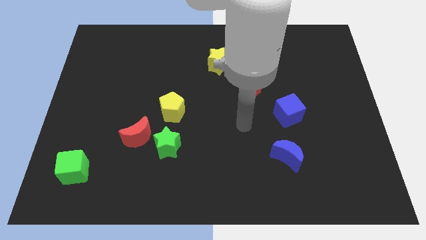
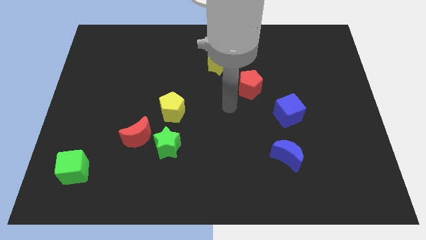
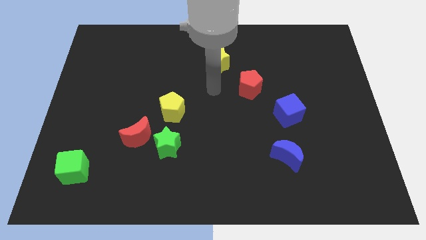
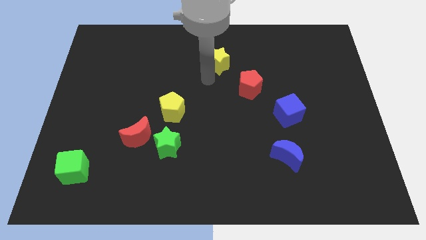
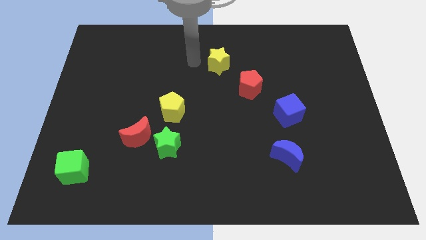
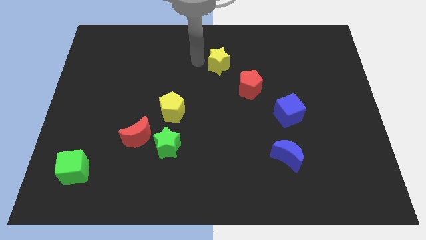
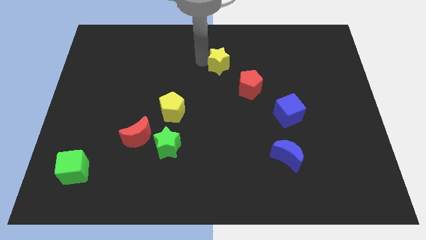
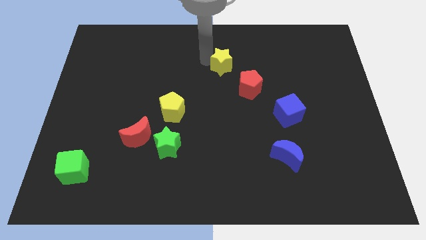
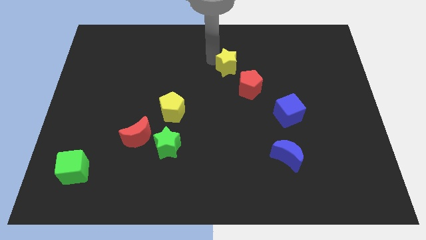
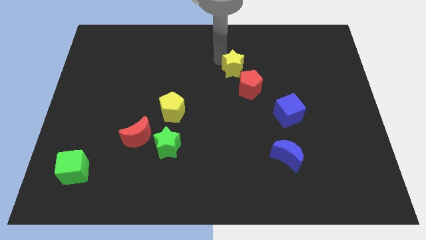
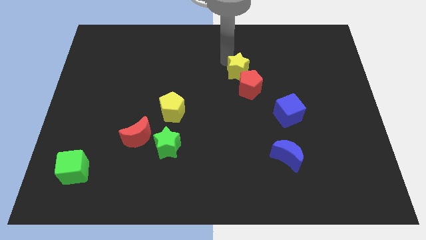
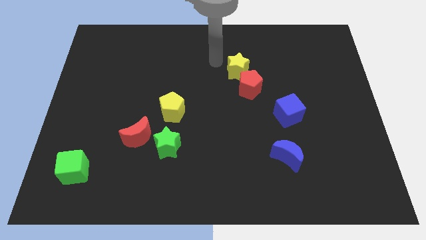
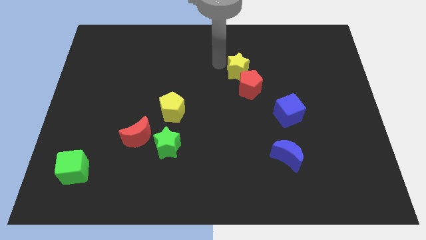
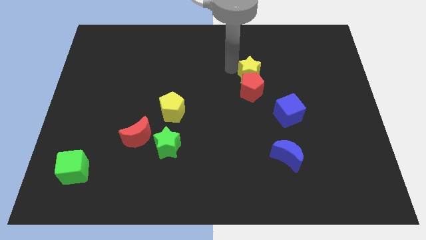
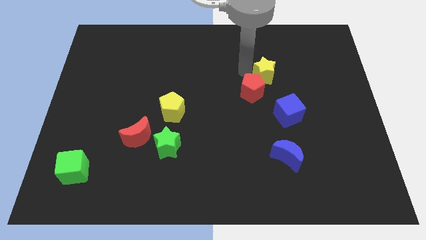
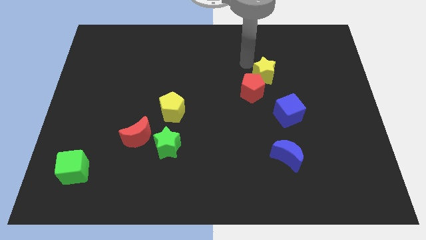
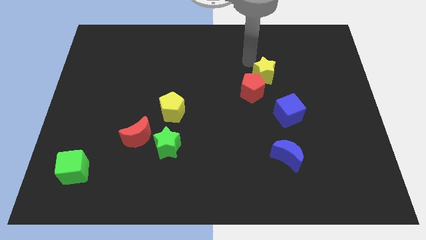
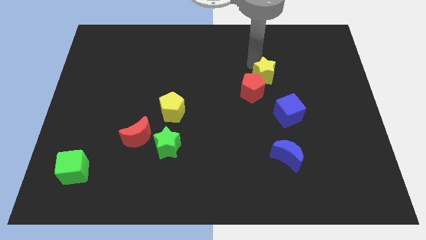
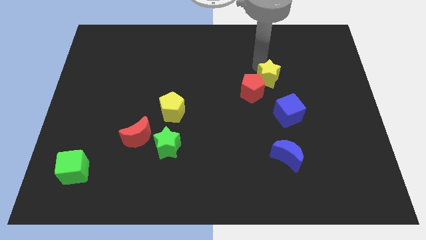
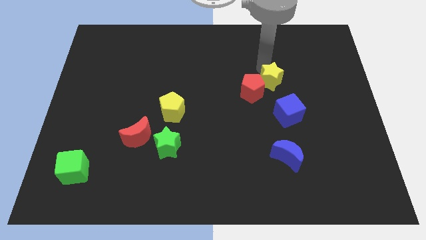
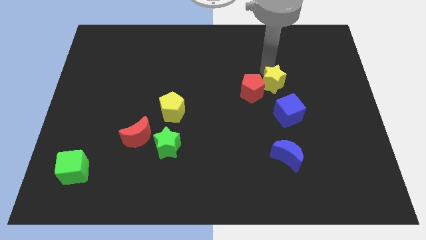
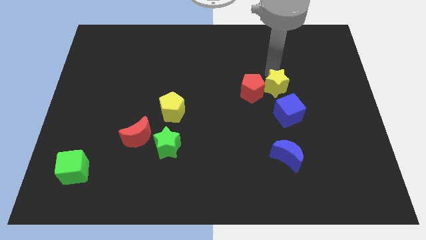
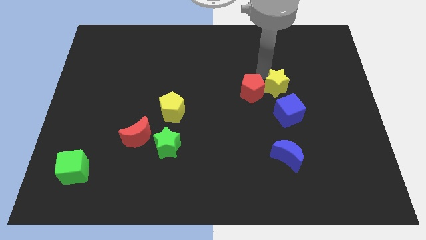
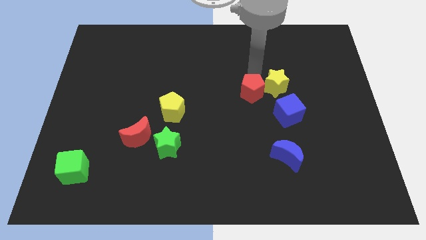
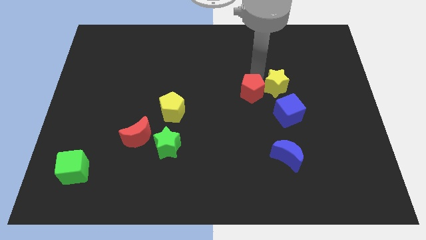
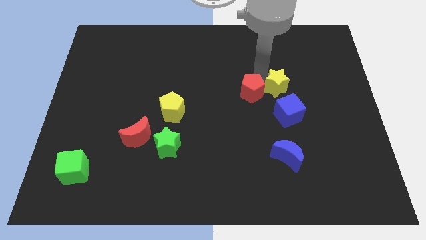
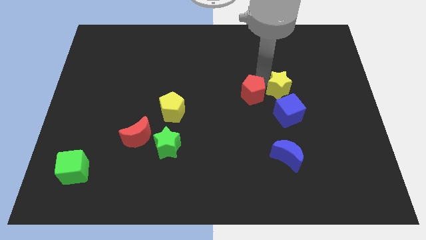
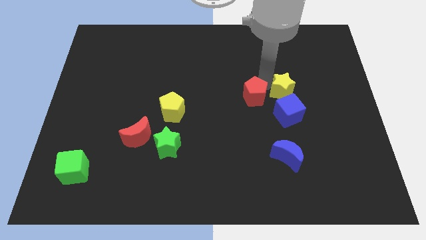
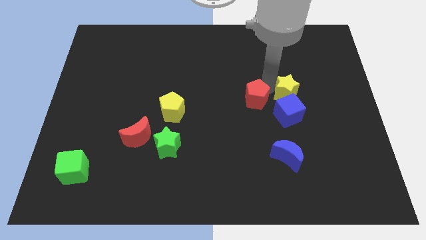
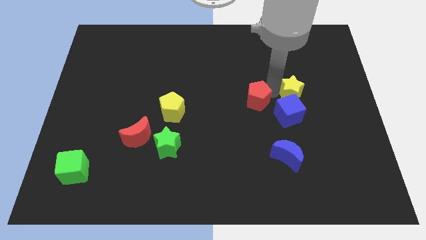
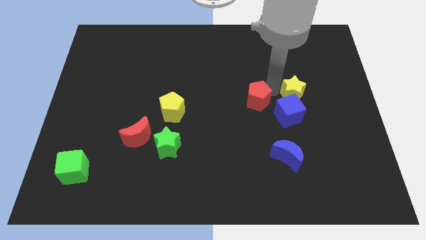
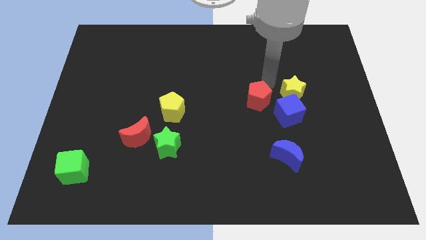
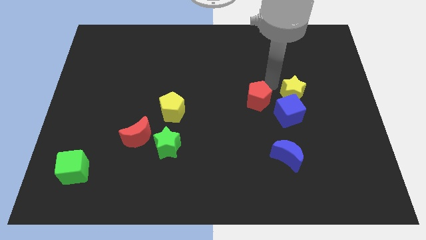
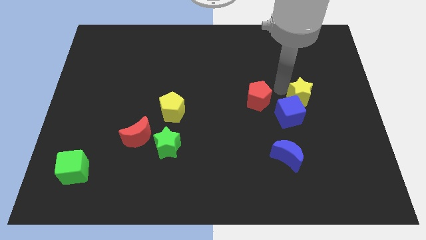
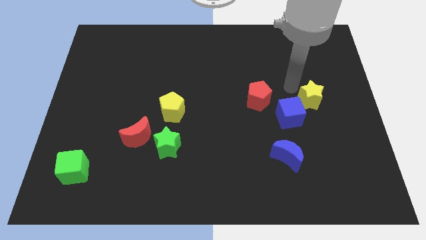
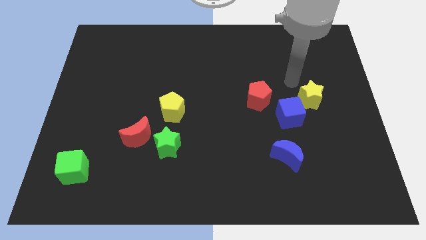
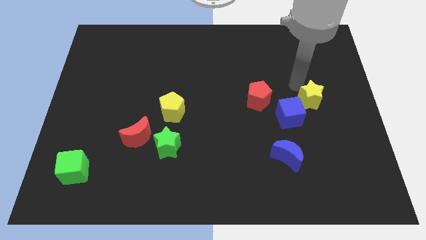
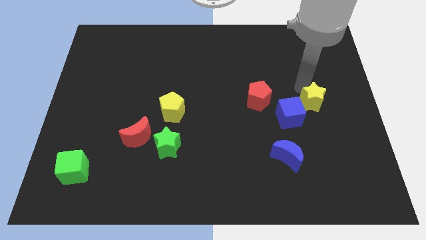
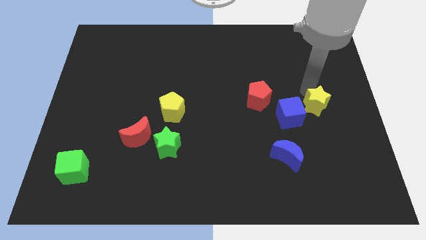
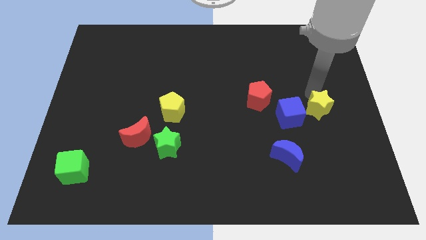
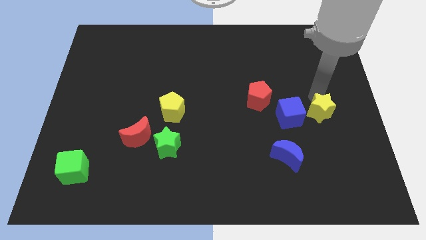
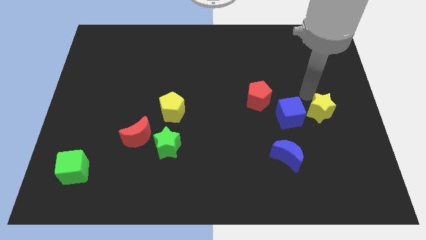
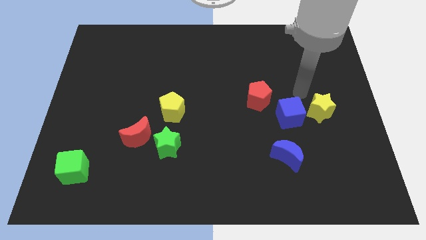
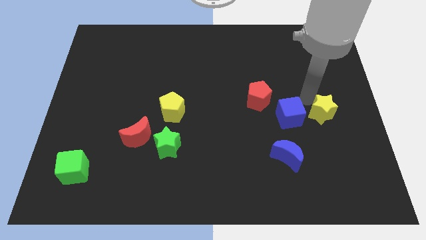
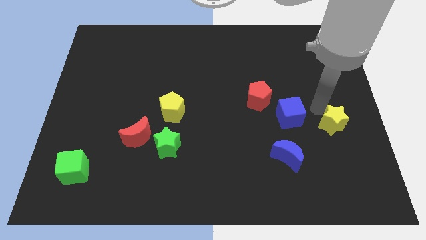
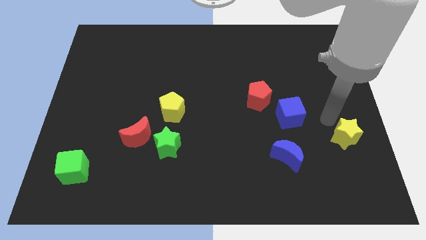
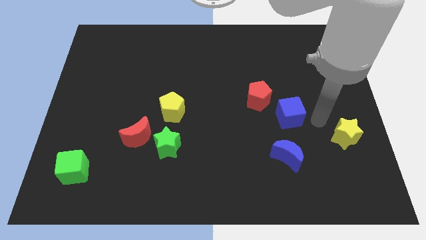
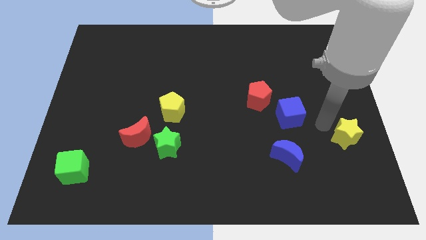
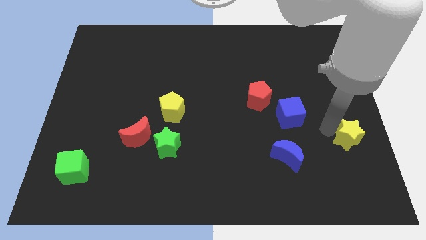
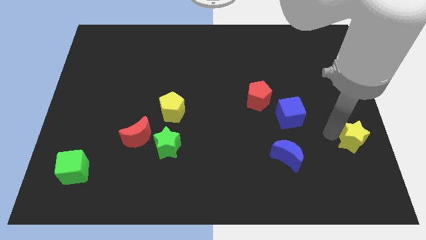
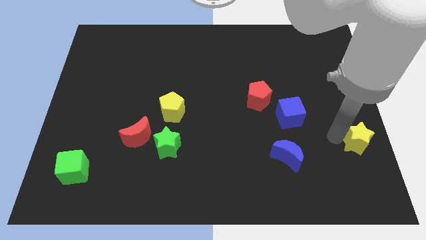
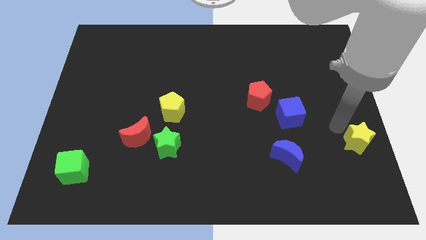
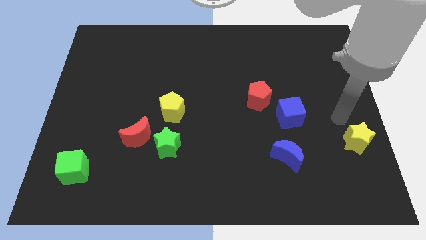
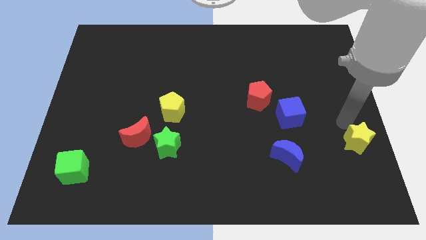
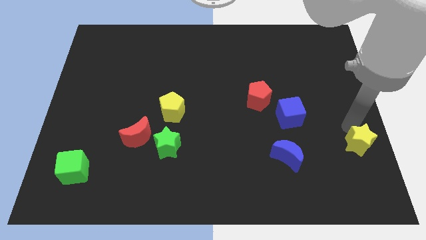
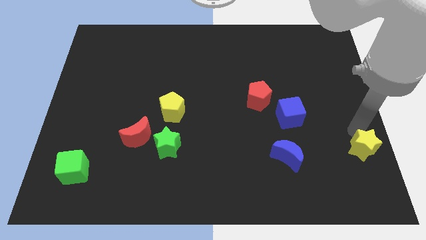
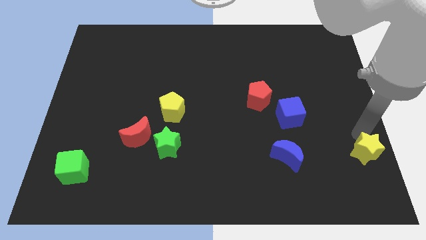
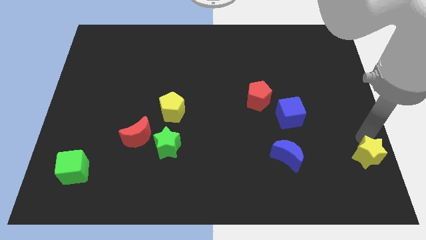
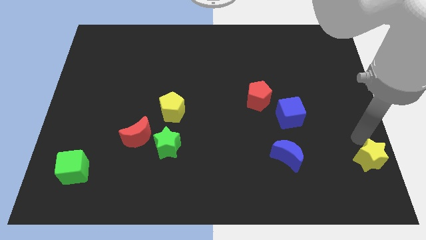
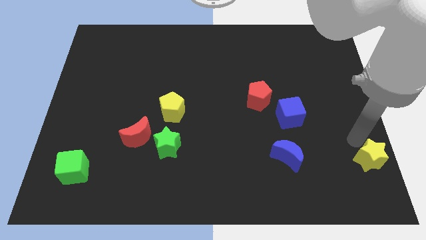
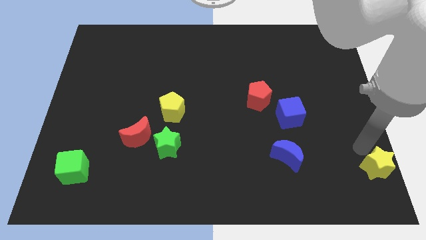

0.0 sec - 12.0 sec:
slide the yellow star to the bottom right of the board
